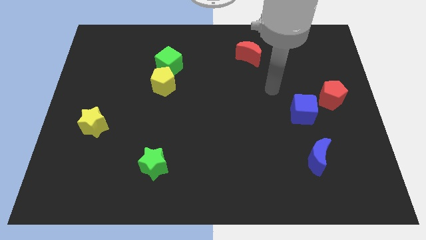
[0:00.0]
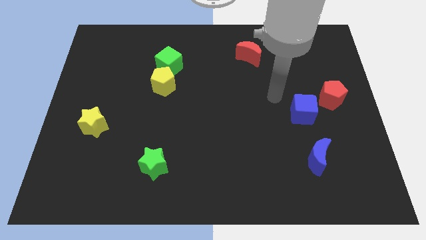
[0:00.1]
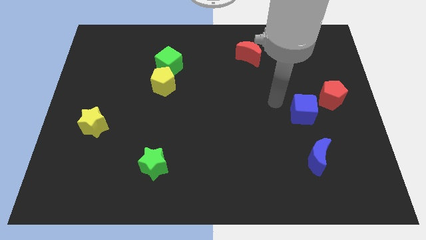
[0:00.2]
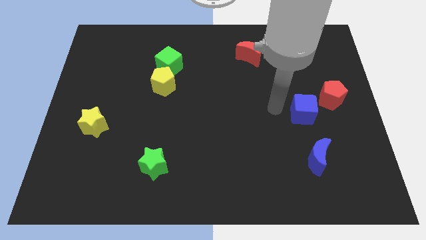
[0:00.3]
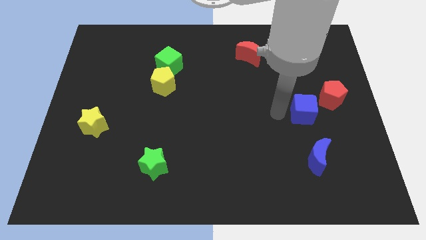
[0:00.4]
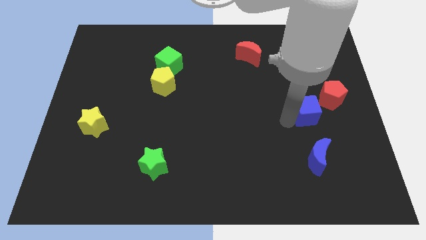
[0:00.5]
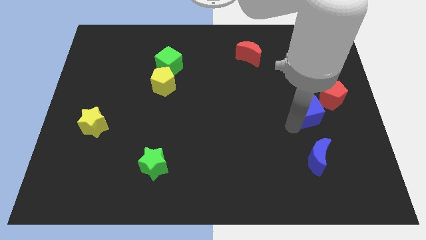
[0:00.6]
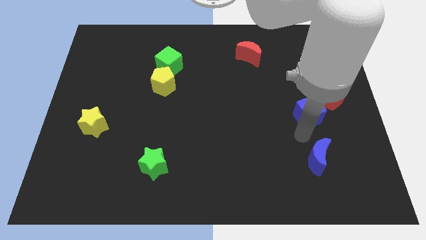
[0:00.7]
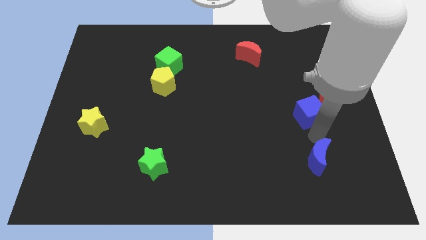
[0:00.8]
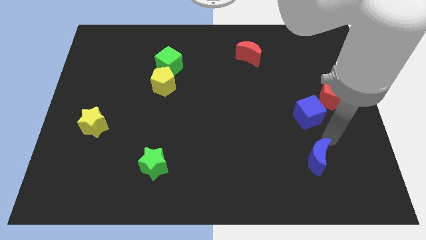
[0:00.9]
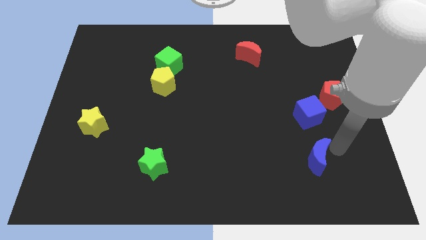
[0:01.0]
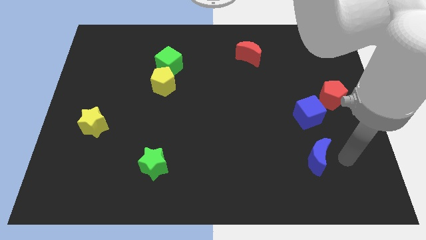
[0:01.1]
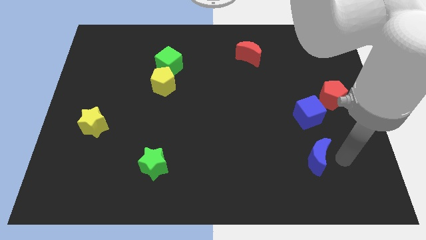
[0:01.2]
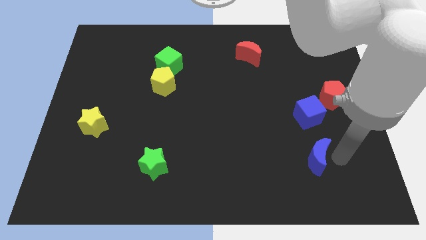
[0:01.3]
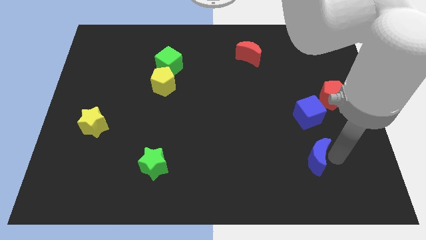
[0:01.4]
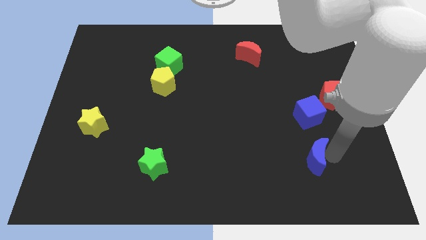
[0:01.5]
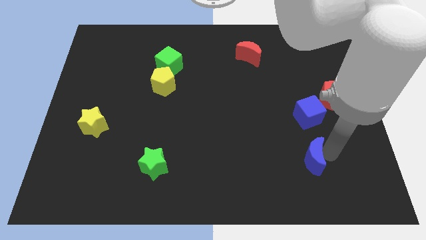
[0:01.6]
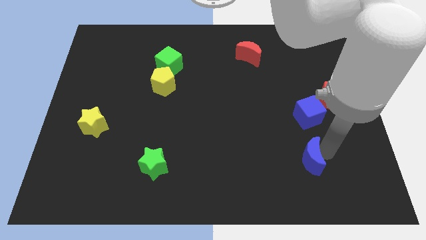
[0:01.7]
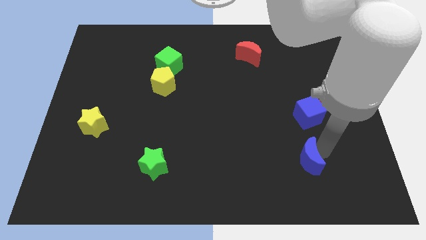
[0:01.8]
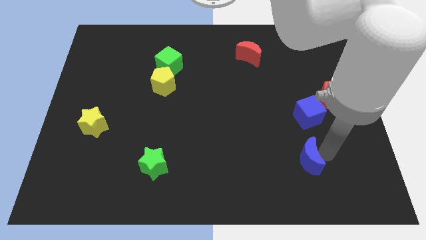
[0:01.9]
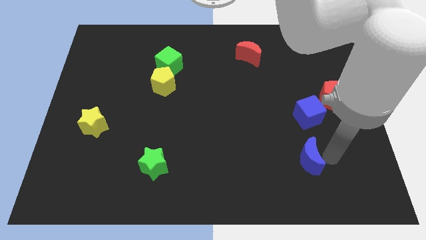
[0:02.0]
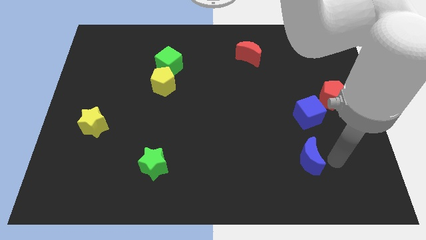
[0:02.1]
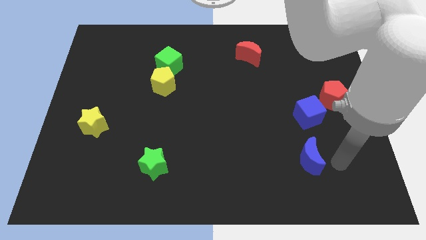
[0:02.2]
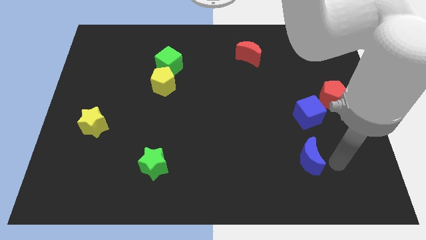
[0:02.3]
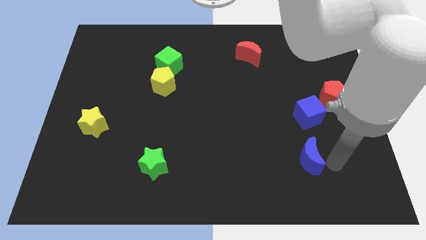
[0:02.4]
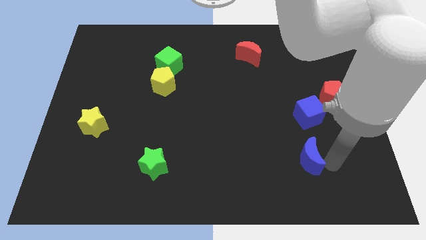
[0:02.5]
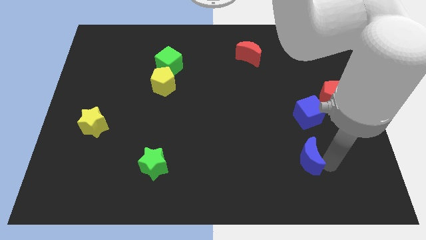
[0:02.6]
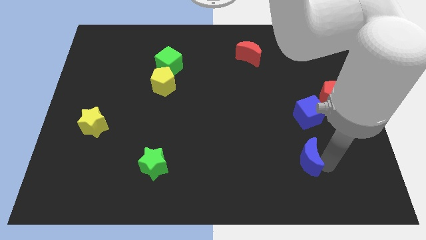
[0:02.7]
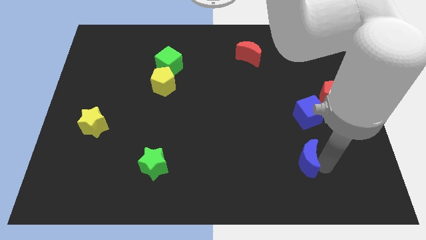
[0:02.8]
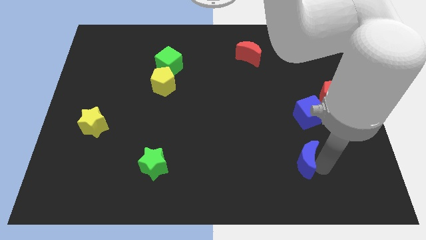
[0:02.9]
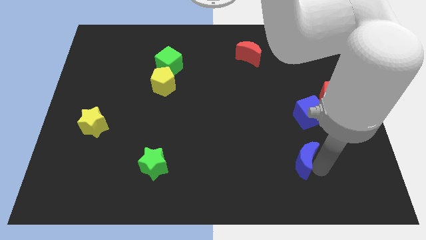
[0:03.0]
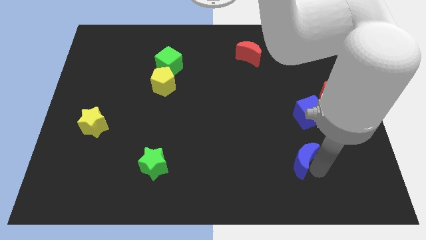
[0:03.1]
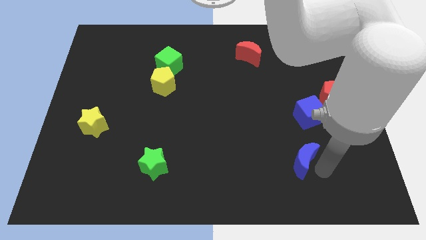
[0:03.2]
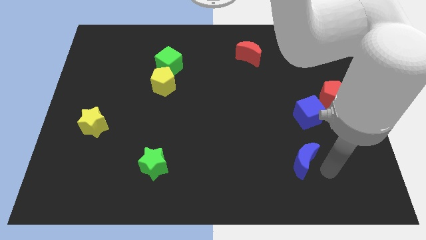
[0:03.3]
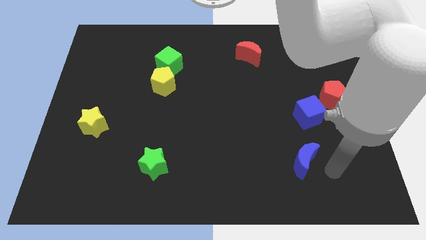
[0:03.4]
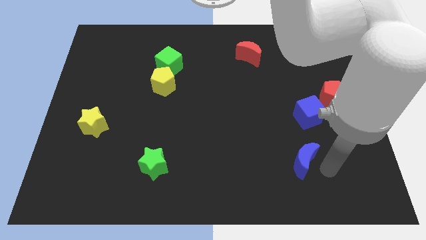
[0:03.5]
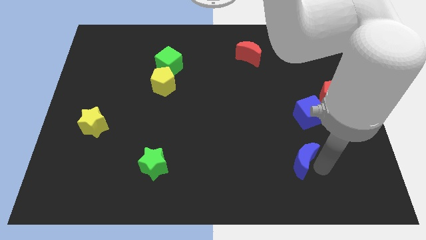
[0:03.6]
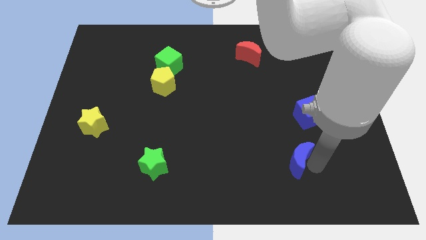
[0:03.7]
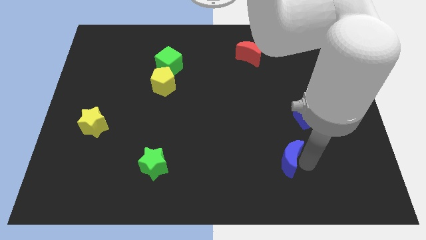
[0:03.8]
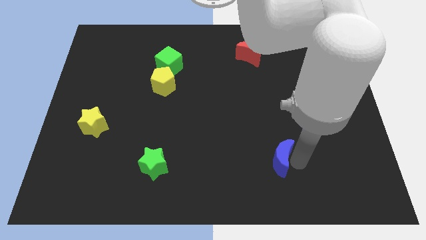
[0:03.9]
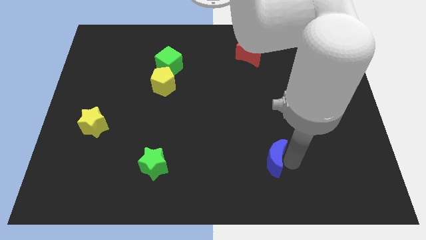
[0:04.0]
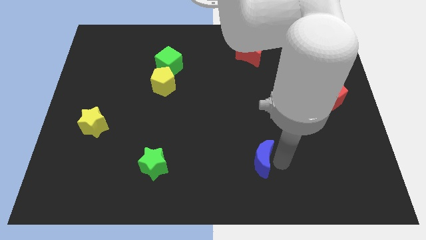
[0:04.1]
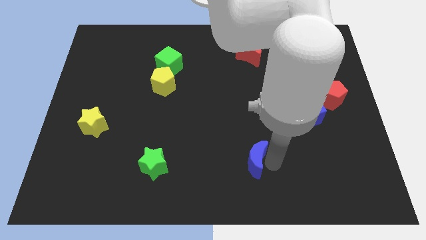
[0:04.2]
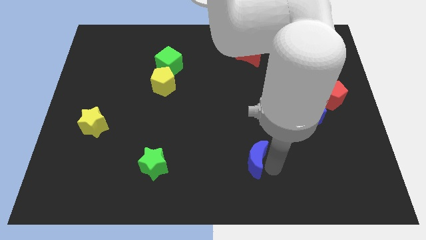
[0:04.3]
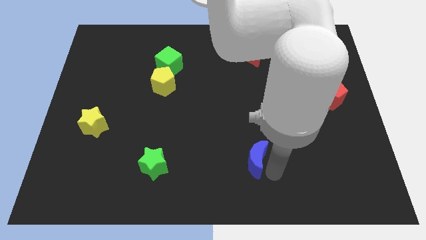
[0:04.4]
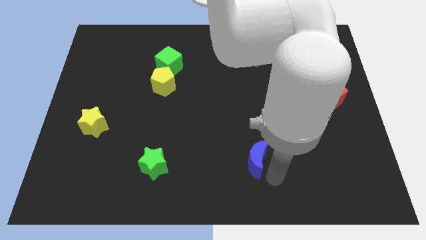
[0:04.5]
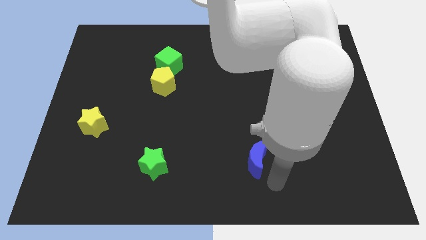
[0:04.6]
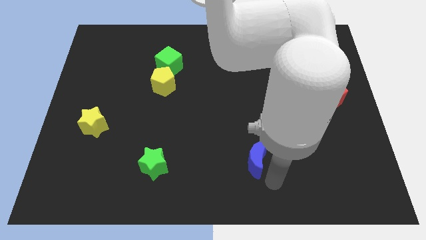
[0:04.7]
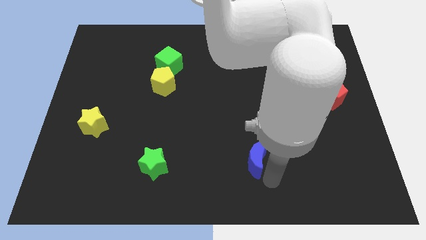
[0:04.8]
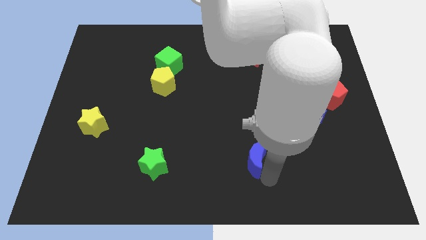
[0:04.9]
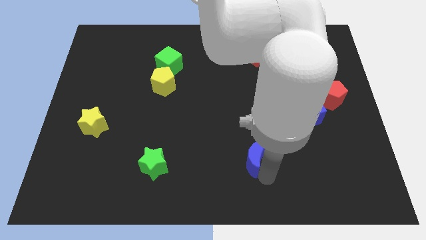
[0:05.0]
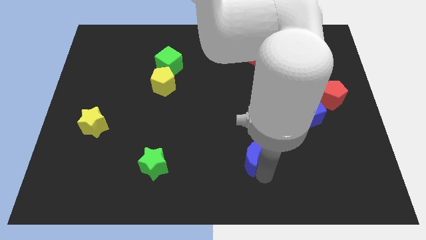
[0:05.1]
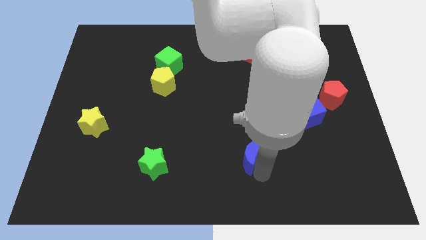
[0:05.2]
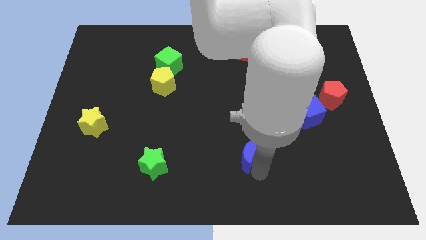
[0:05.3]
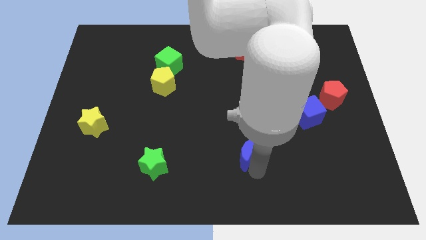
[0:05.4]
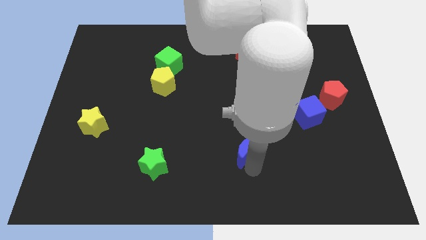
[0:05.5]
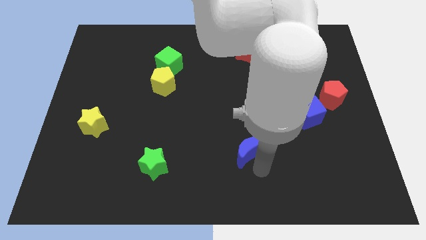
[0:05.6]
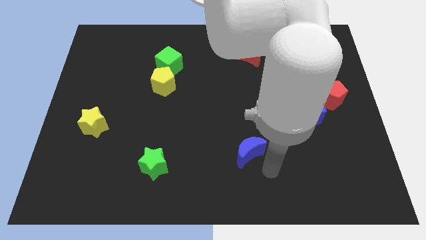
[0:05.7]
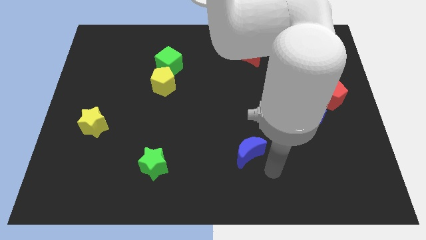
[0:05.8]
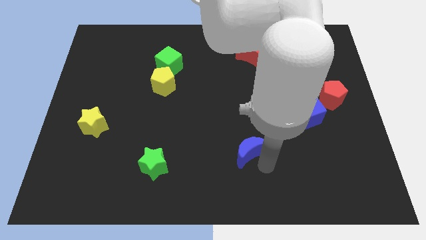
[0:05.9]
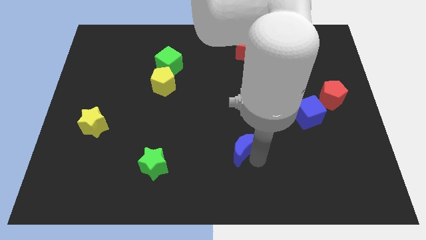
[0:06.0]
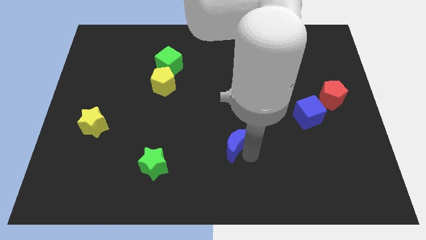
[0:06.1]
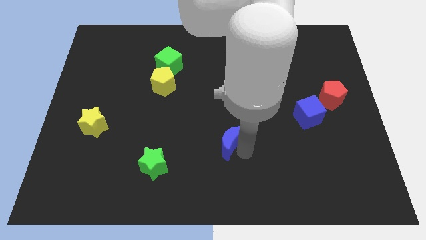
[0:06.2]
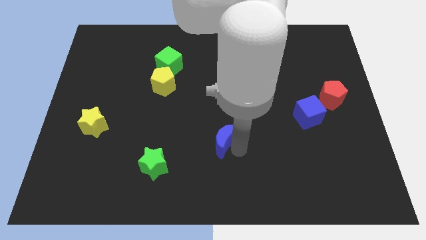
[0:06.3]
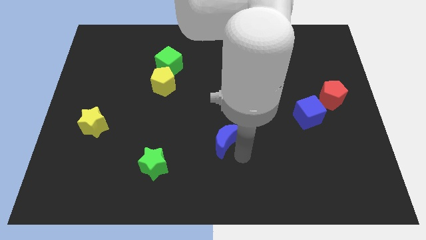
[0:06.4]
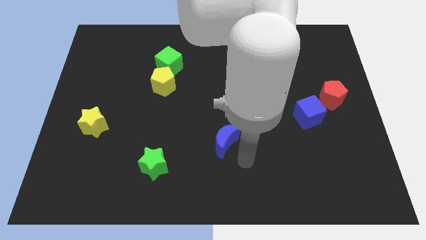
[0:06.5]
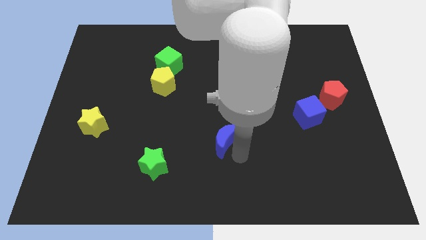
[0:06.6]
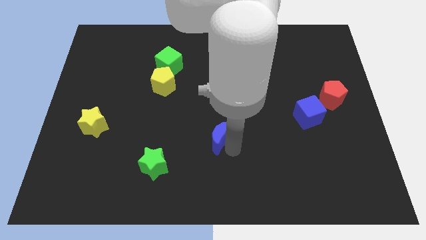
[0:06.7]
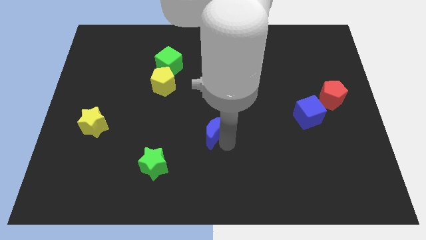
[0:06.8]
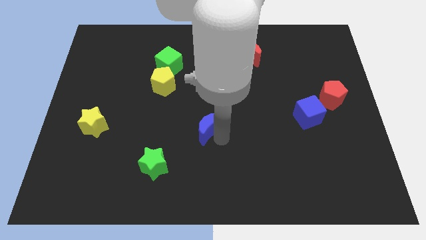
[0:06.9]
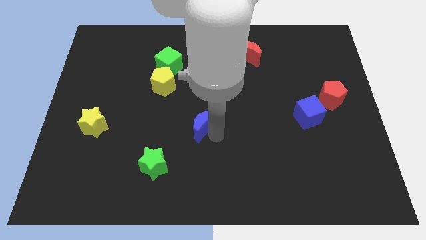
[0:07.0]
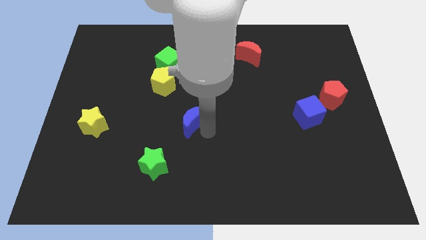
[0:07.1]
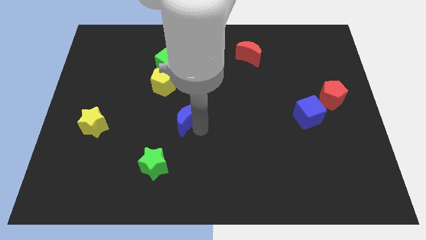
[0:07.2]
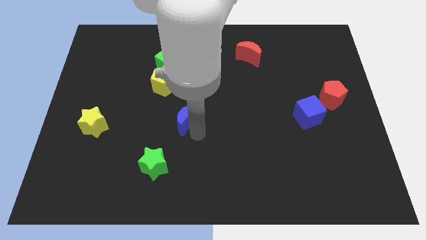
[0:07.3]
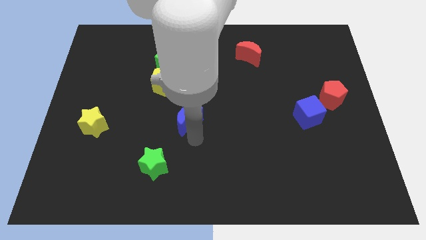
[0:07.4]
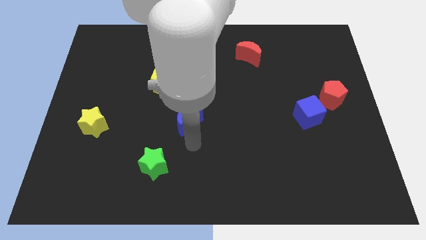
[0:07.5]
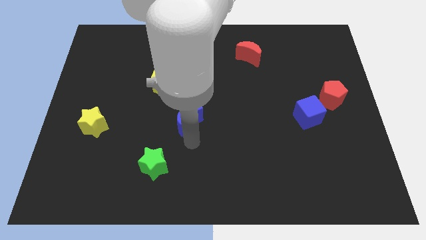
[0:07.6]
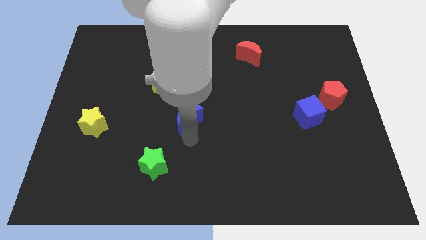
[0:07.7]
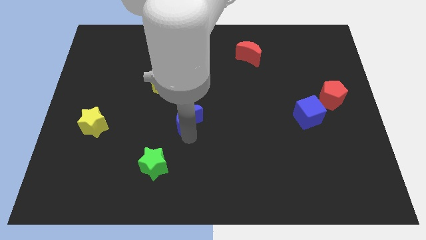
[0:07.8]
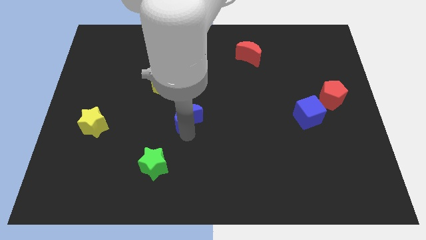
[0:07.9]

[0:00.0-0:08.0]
push the blue moon to the bottom right of the yellow pentagon
